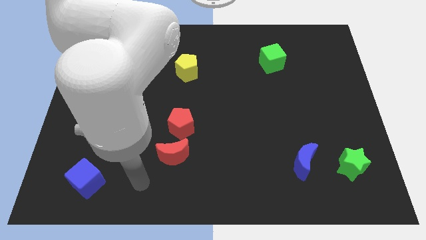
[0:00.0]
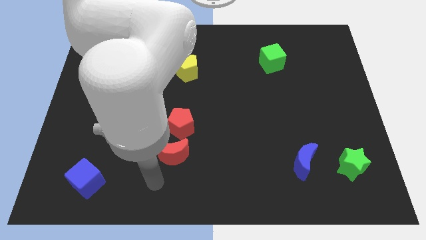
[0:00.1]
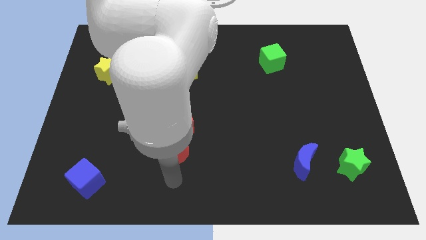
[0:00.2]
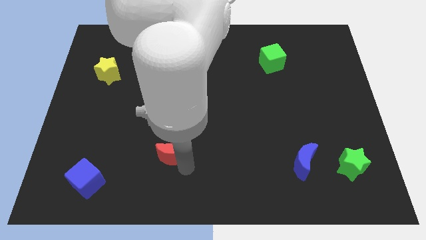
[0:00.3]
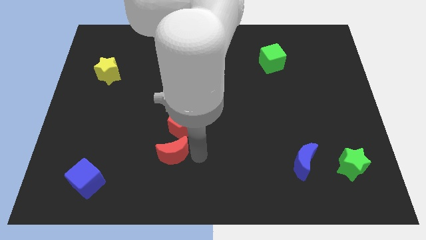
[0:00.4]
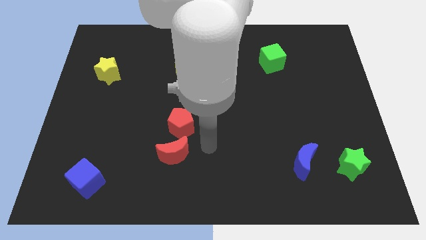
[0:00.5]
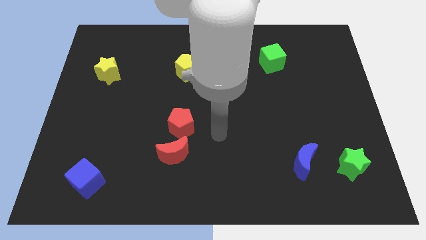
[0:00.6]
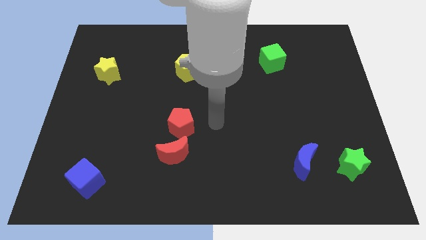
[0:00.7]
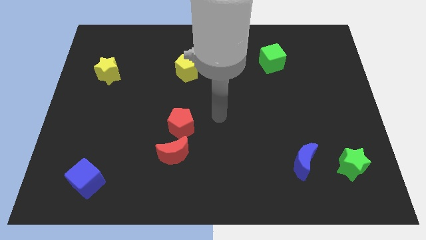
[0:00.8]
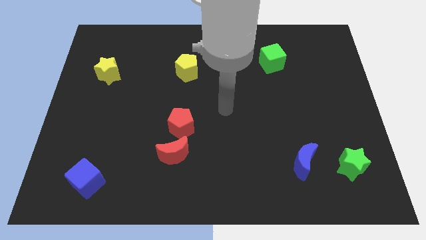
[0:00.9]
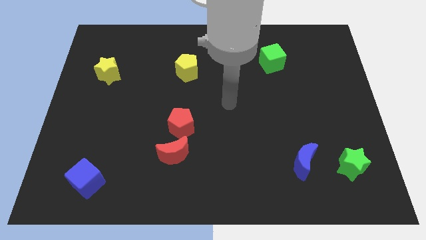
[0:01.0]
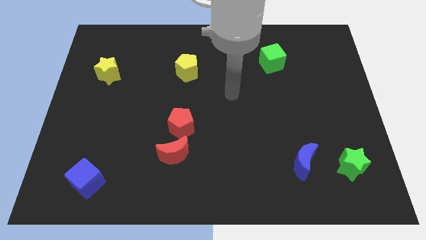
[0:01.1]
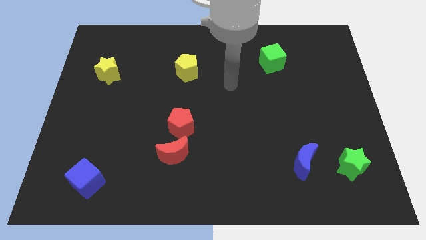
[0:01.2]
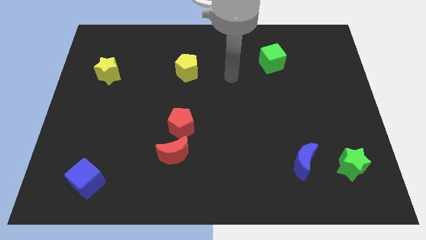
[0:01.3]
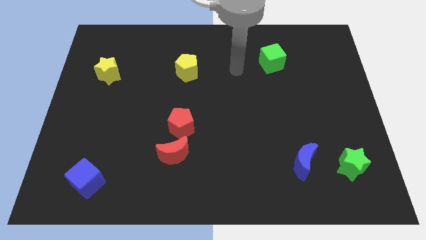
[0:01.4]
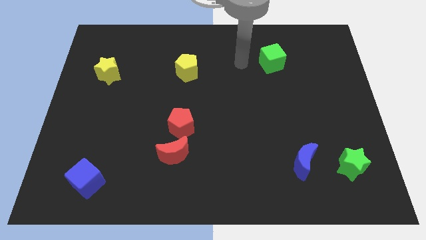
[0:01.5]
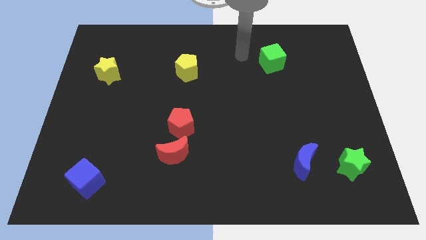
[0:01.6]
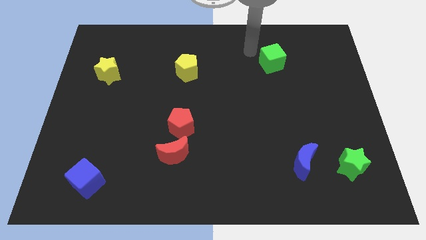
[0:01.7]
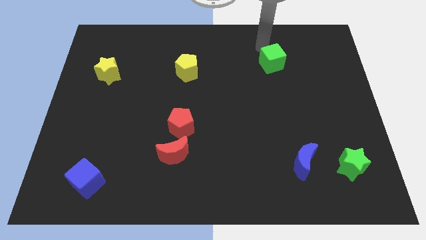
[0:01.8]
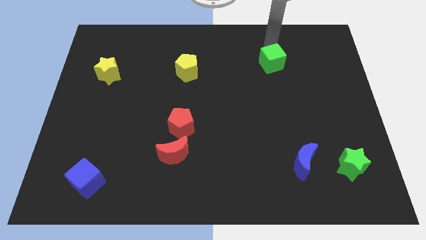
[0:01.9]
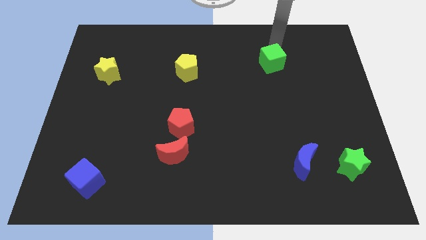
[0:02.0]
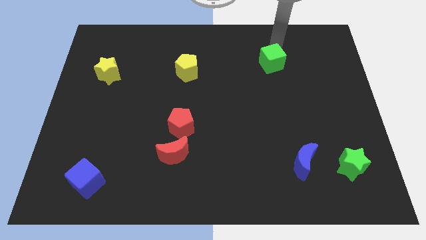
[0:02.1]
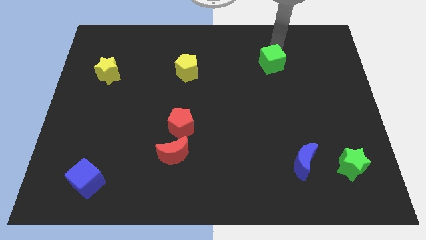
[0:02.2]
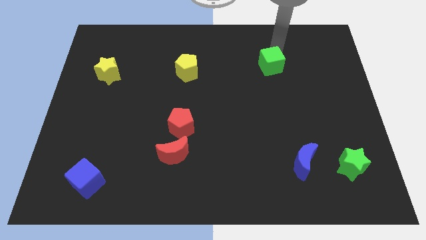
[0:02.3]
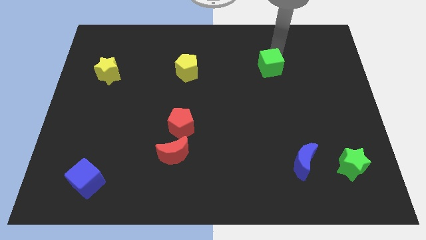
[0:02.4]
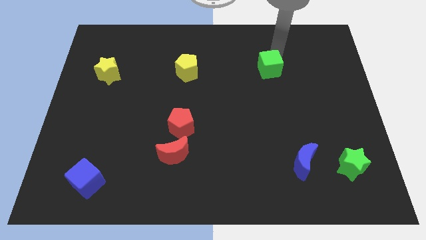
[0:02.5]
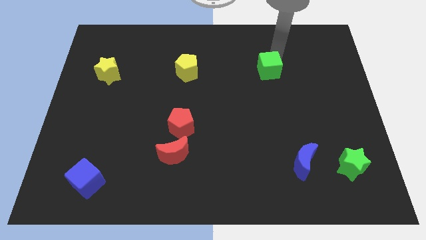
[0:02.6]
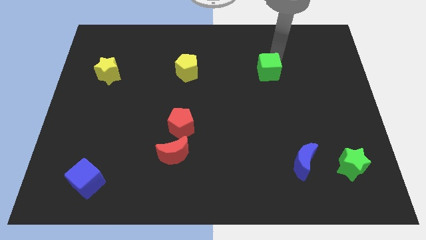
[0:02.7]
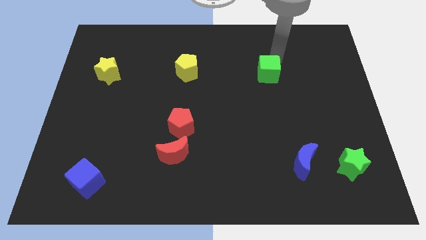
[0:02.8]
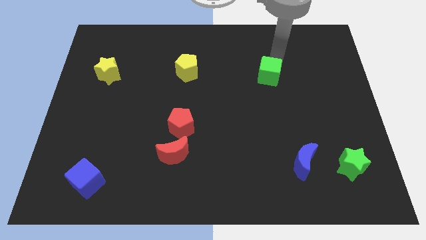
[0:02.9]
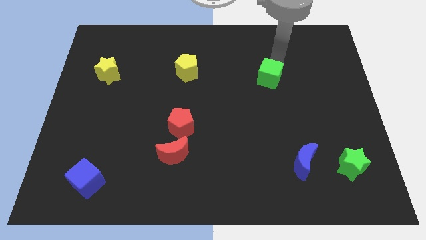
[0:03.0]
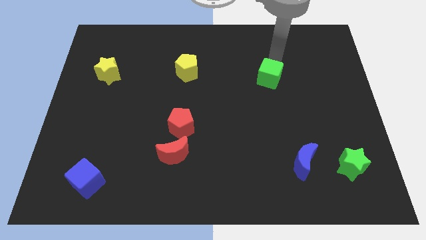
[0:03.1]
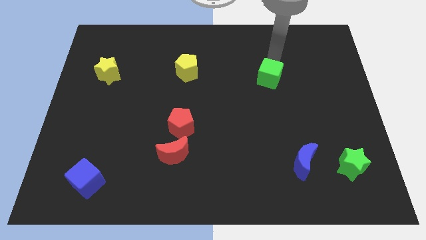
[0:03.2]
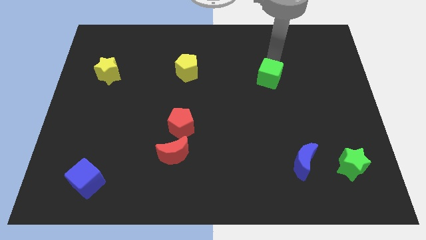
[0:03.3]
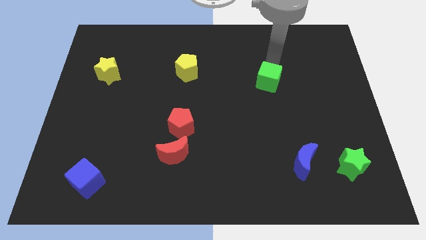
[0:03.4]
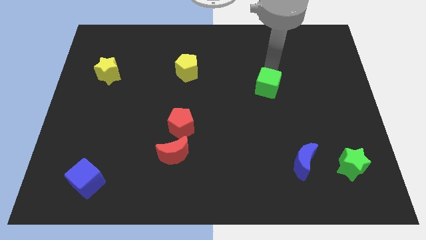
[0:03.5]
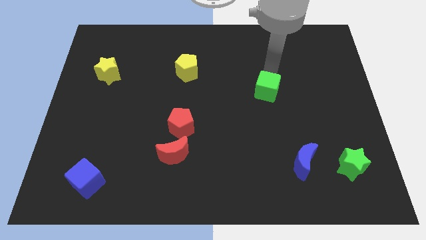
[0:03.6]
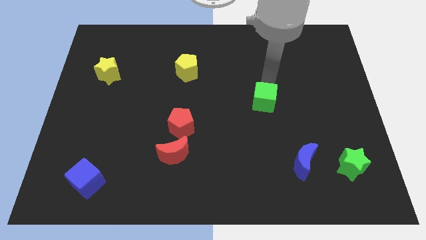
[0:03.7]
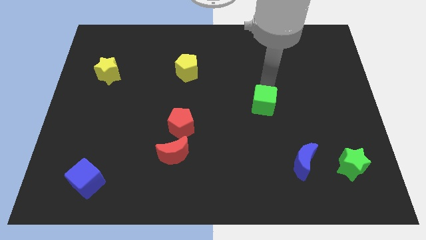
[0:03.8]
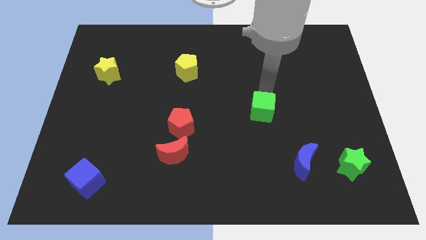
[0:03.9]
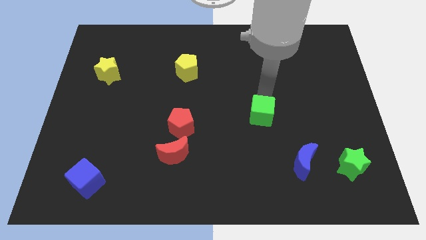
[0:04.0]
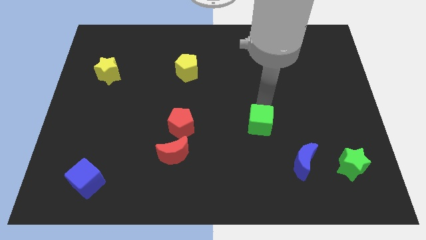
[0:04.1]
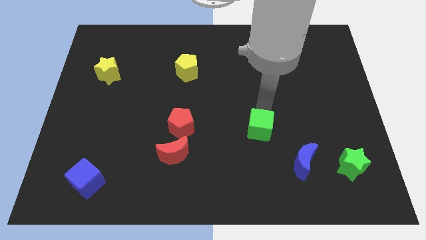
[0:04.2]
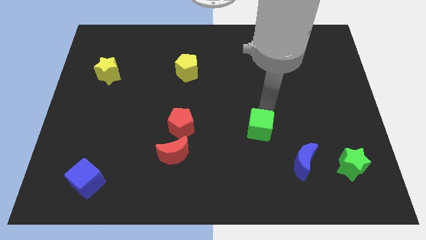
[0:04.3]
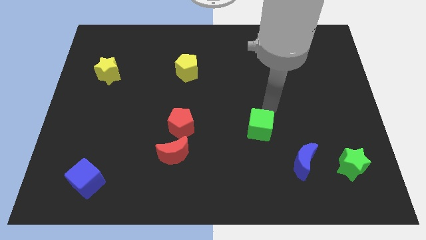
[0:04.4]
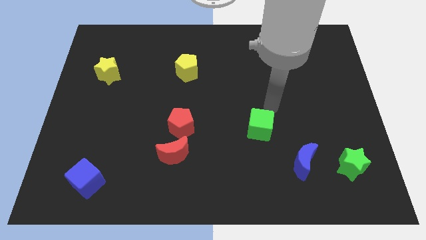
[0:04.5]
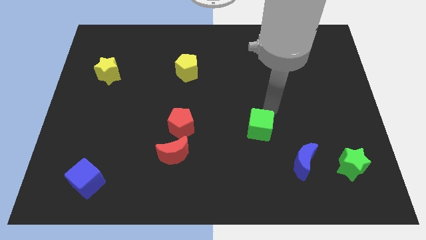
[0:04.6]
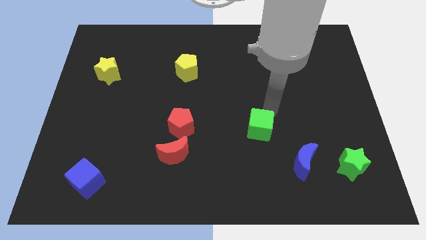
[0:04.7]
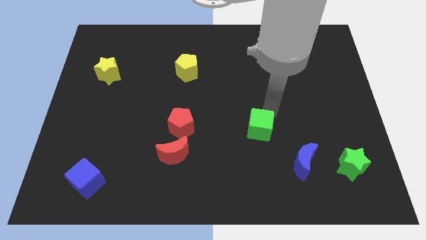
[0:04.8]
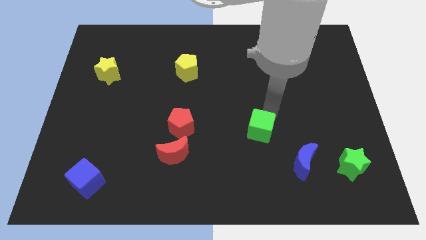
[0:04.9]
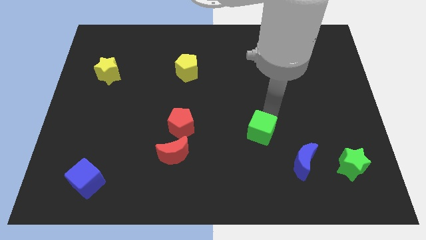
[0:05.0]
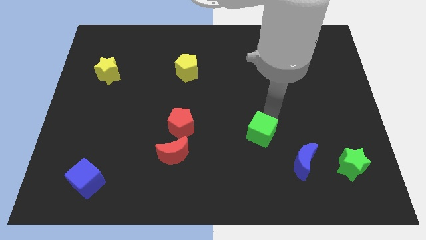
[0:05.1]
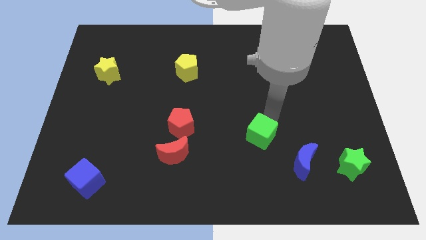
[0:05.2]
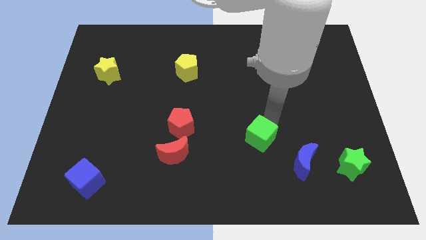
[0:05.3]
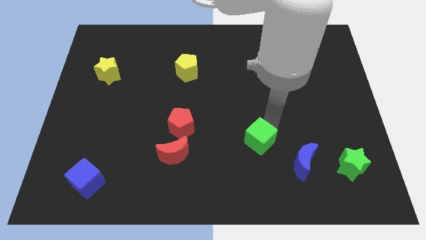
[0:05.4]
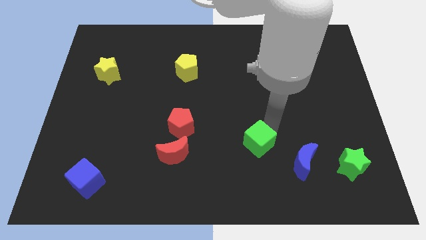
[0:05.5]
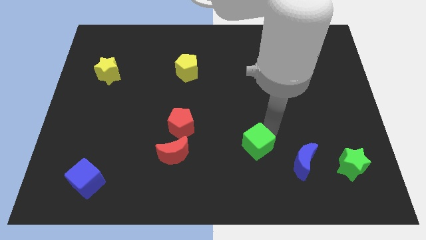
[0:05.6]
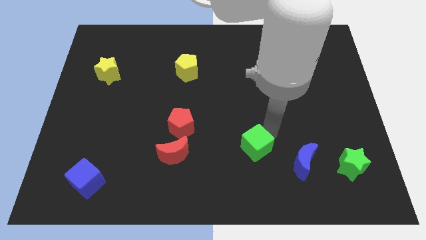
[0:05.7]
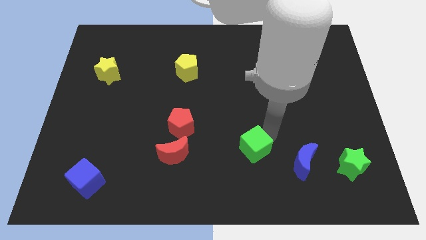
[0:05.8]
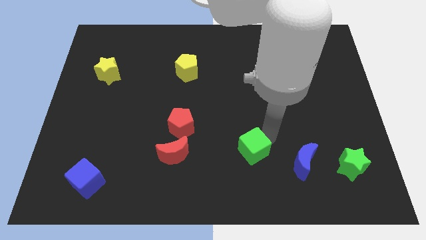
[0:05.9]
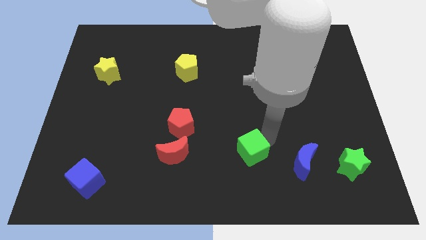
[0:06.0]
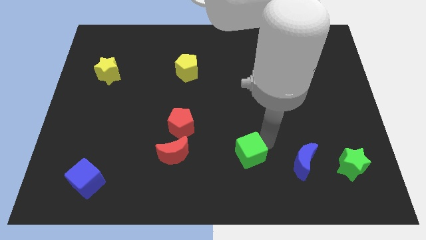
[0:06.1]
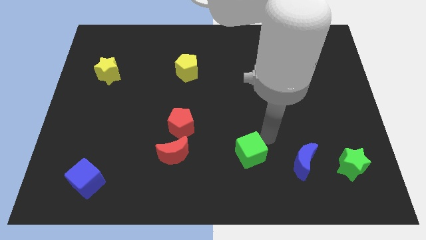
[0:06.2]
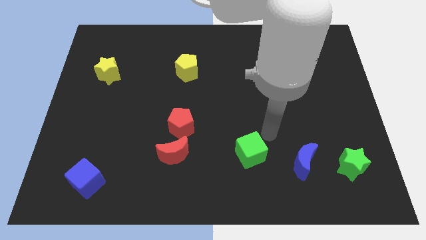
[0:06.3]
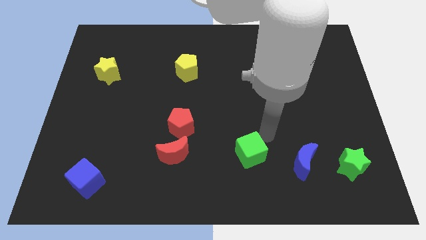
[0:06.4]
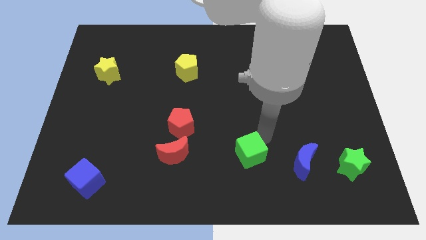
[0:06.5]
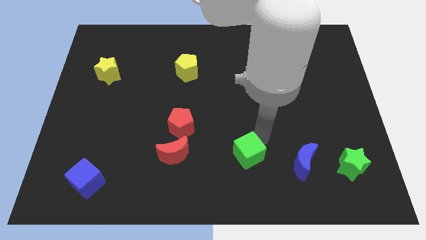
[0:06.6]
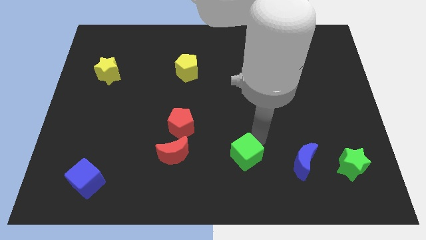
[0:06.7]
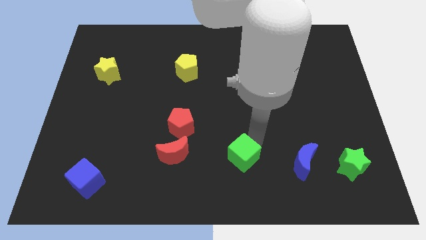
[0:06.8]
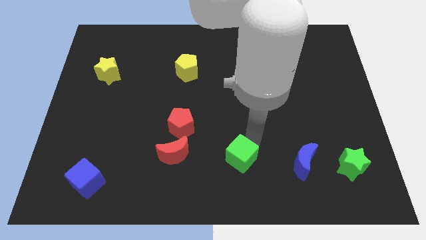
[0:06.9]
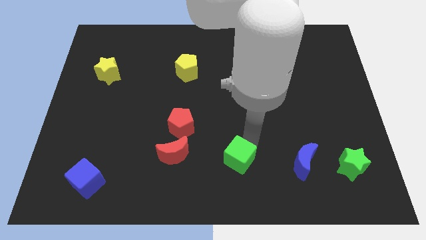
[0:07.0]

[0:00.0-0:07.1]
move the green cube to the bottom
